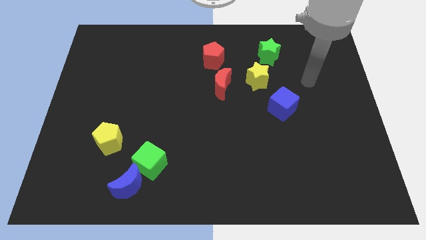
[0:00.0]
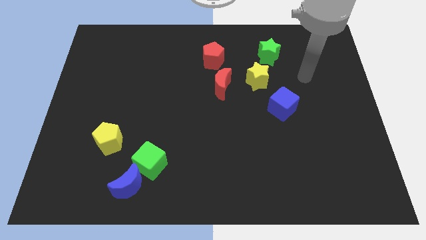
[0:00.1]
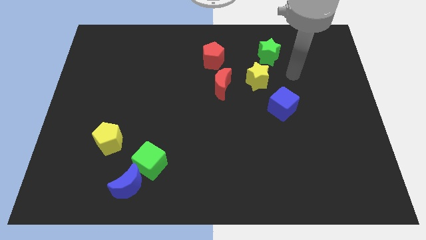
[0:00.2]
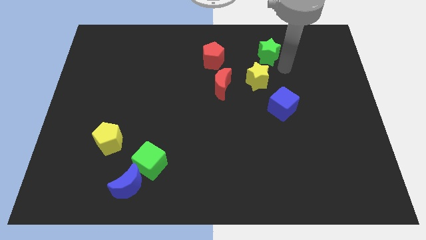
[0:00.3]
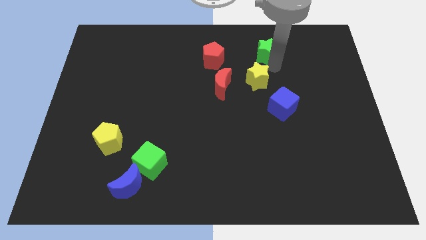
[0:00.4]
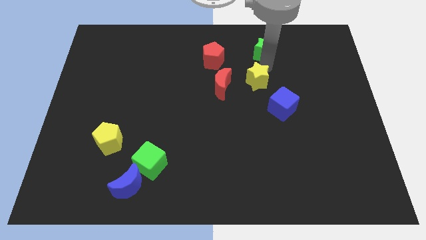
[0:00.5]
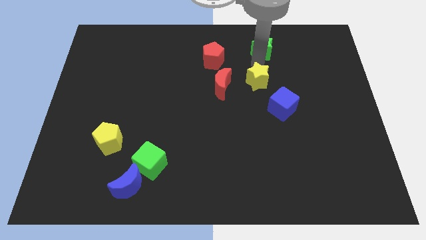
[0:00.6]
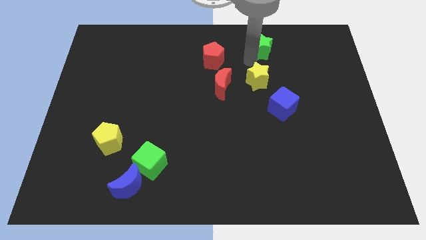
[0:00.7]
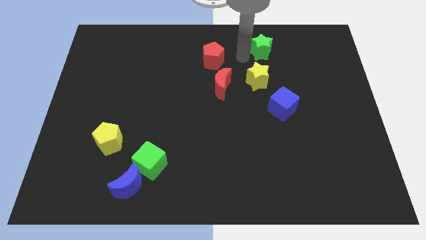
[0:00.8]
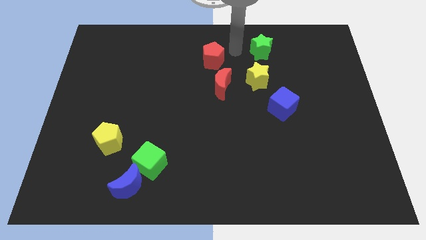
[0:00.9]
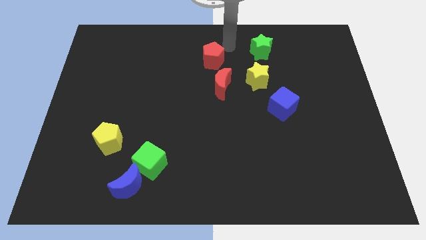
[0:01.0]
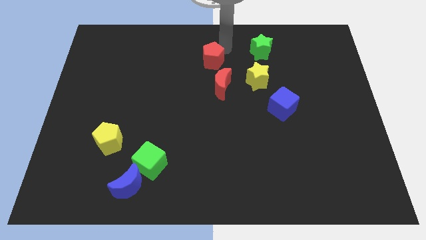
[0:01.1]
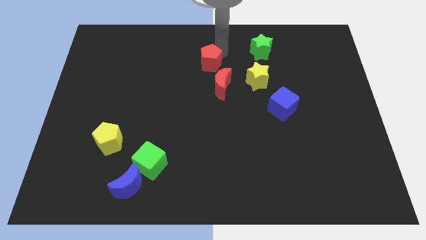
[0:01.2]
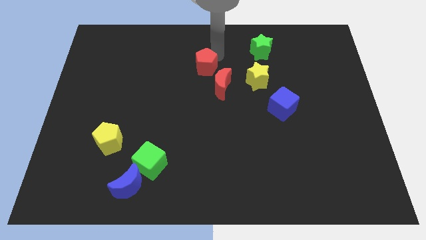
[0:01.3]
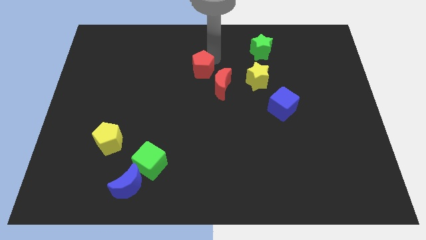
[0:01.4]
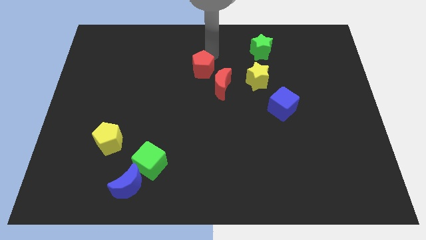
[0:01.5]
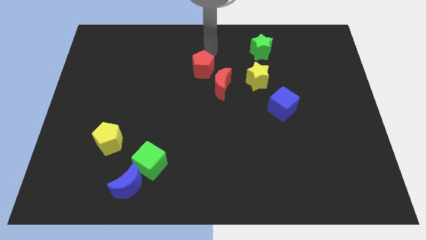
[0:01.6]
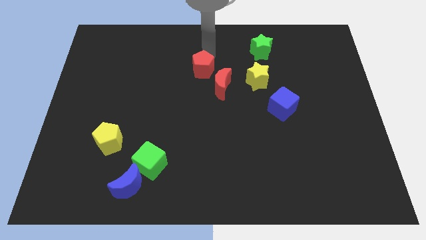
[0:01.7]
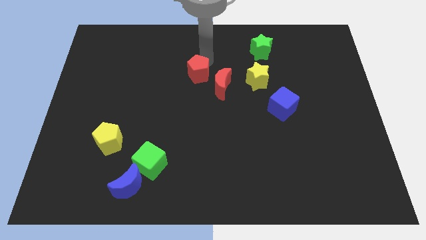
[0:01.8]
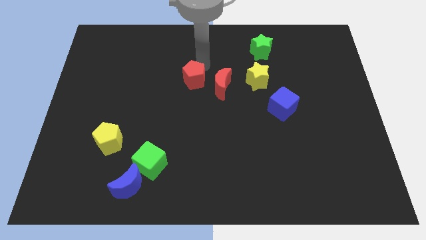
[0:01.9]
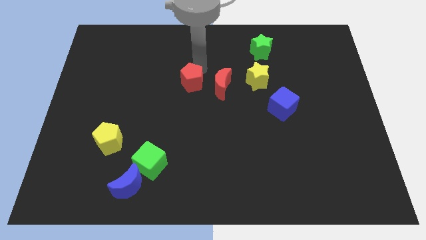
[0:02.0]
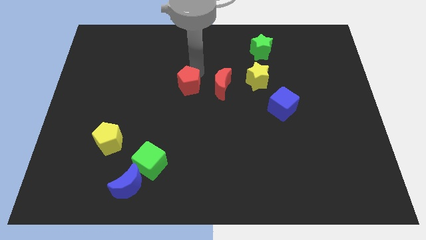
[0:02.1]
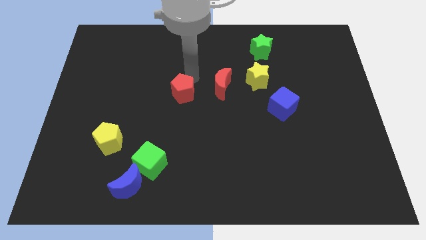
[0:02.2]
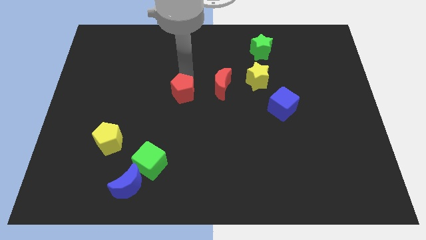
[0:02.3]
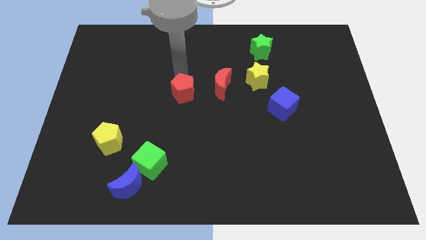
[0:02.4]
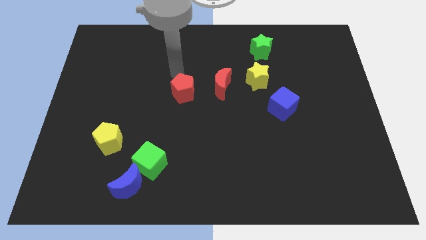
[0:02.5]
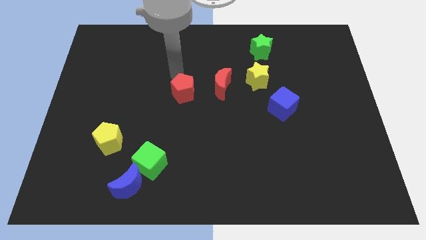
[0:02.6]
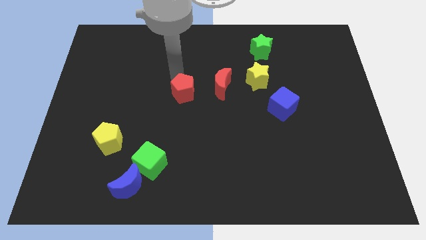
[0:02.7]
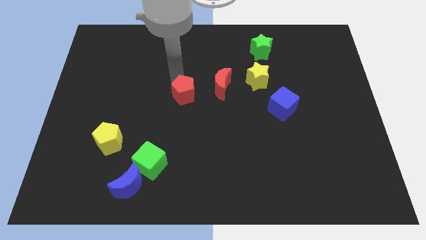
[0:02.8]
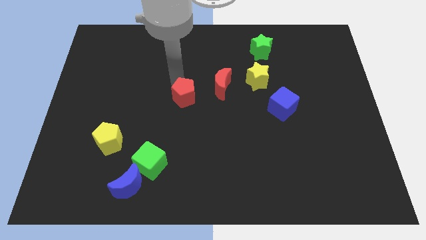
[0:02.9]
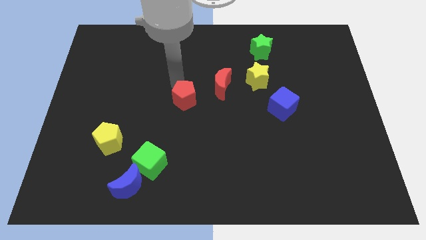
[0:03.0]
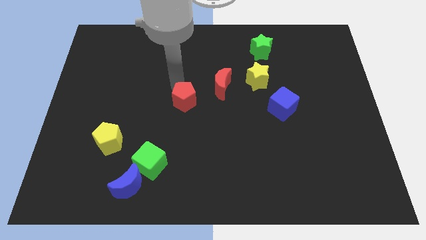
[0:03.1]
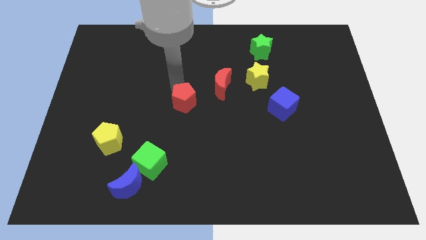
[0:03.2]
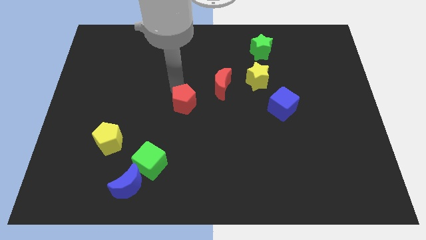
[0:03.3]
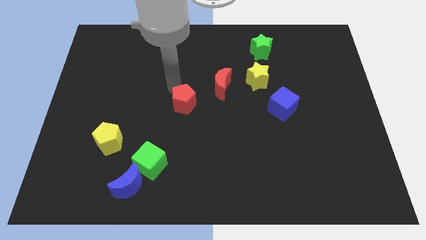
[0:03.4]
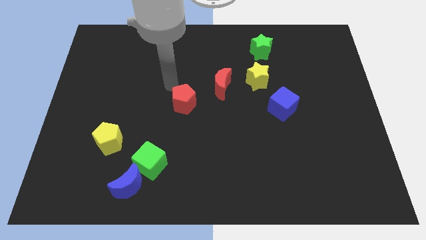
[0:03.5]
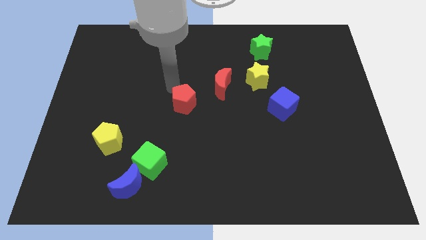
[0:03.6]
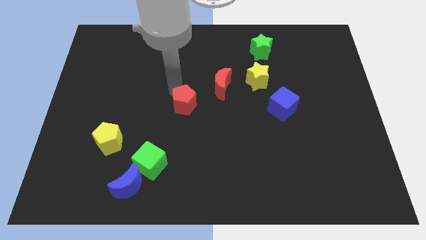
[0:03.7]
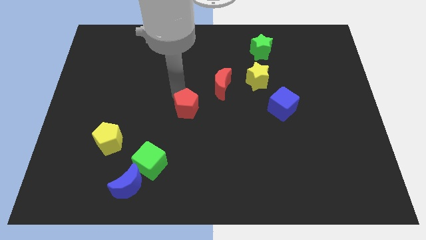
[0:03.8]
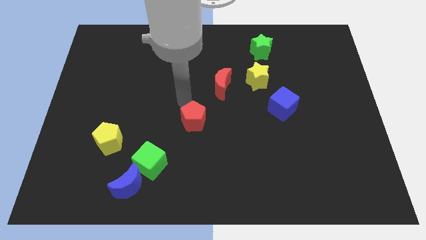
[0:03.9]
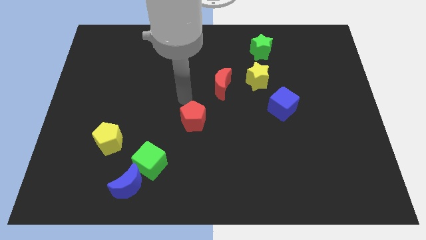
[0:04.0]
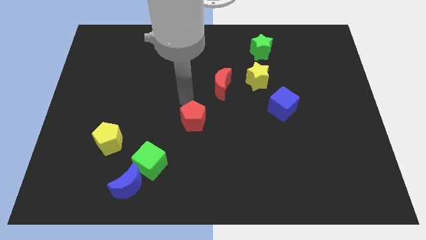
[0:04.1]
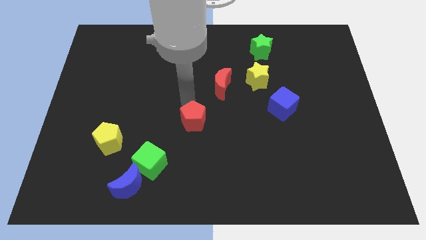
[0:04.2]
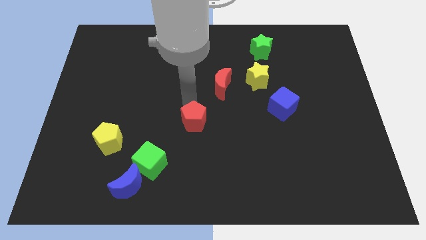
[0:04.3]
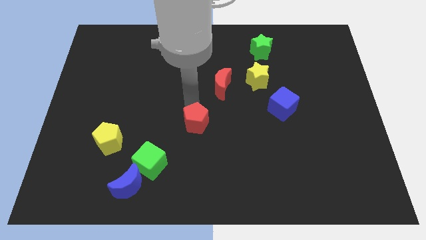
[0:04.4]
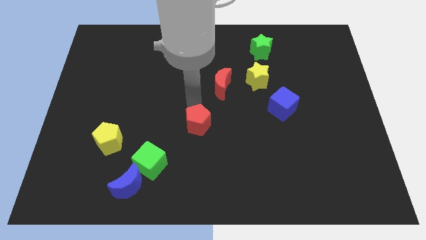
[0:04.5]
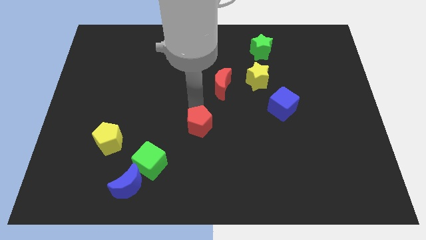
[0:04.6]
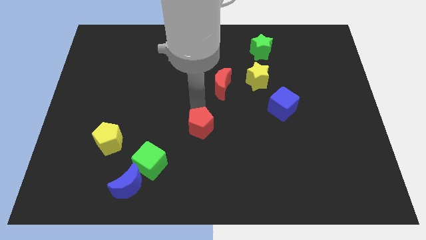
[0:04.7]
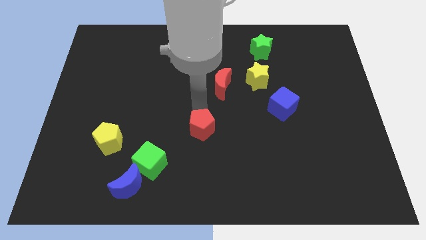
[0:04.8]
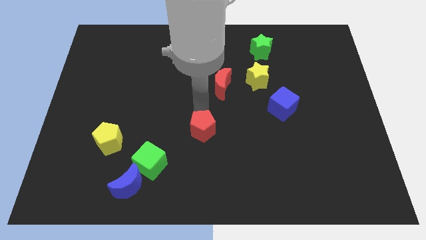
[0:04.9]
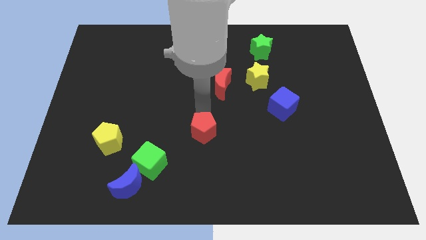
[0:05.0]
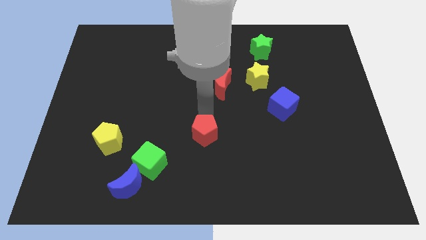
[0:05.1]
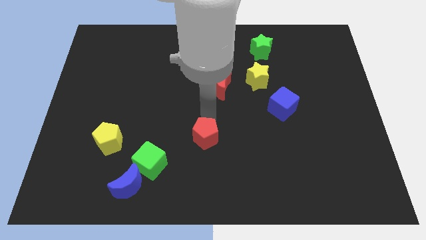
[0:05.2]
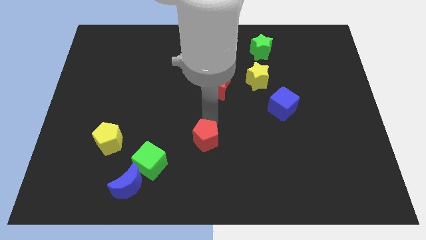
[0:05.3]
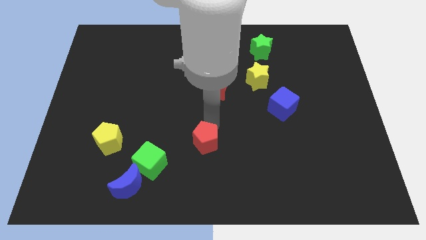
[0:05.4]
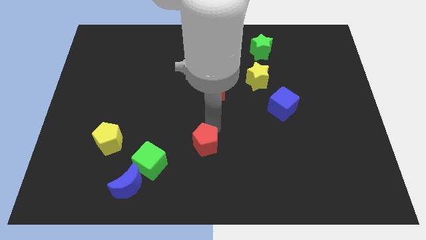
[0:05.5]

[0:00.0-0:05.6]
move the red pentagon just right of the green cube

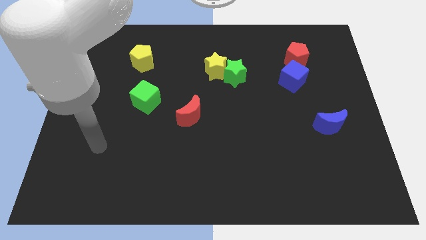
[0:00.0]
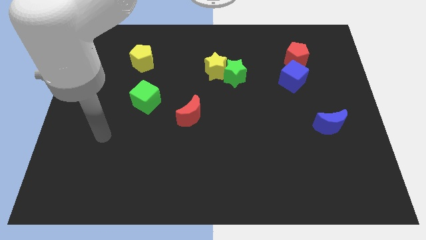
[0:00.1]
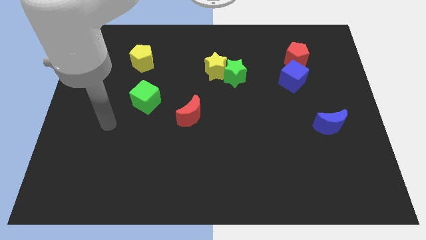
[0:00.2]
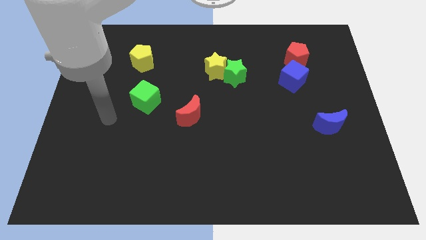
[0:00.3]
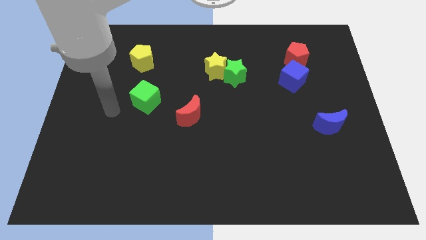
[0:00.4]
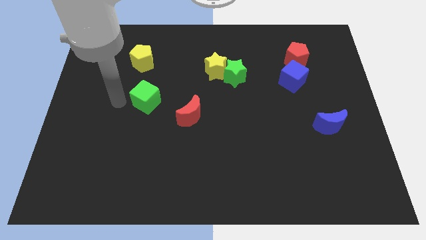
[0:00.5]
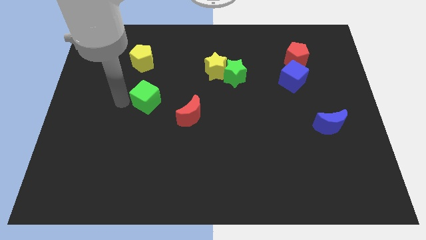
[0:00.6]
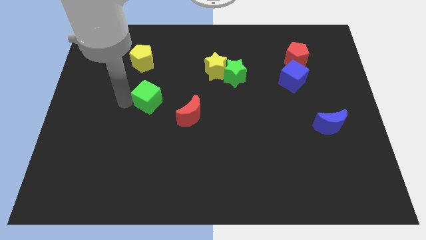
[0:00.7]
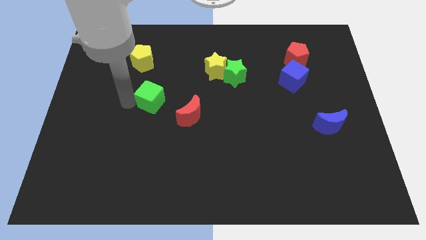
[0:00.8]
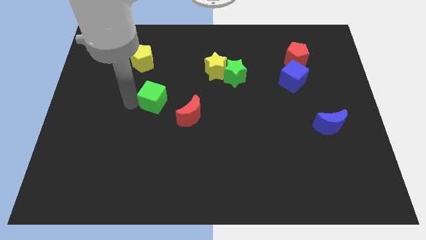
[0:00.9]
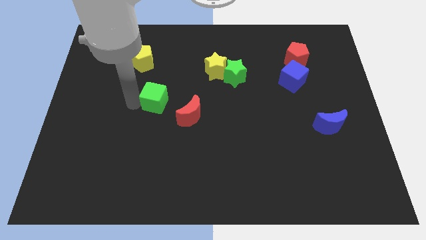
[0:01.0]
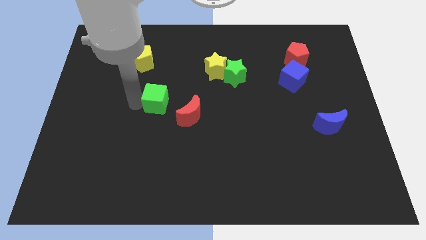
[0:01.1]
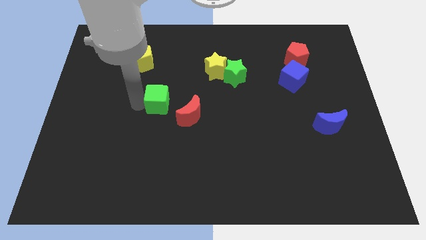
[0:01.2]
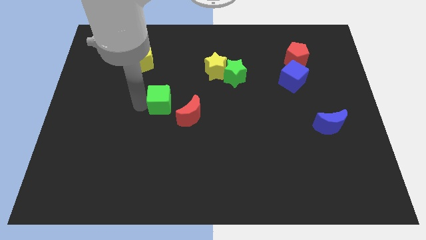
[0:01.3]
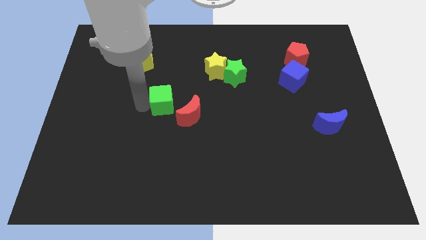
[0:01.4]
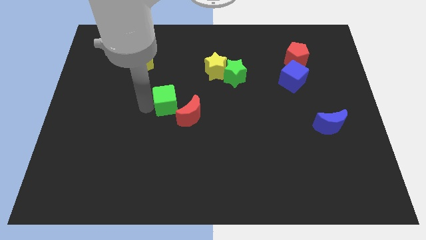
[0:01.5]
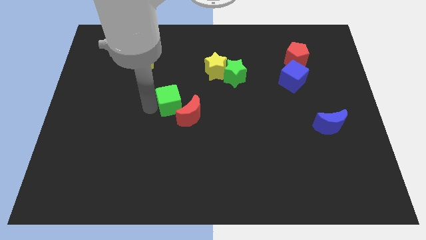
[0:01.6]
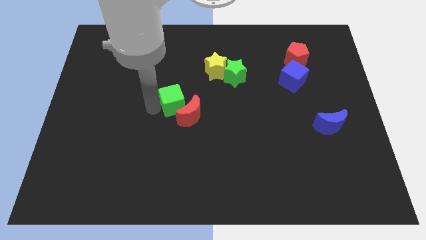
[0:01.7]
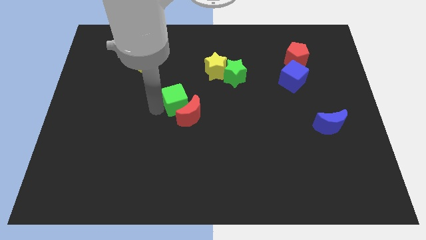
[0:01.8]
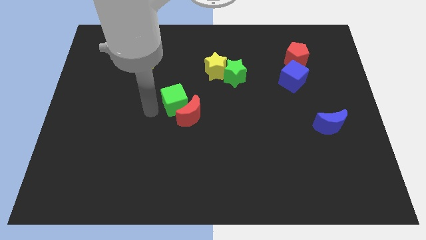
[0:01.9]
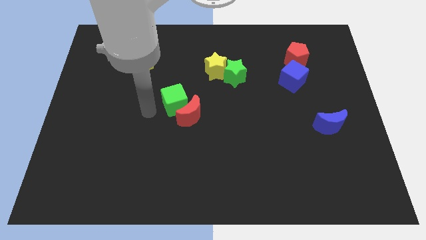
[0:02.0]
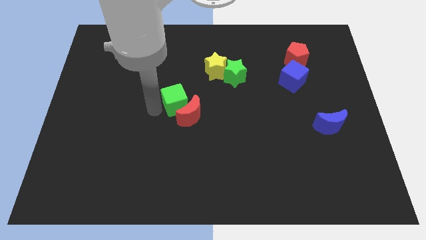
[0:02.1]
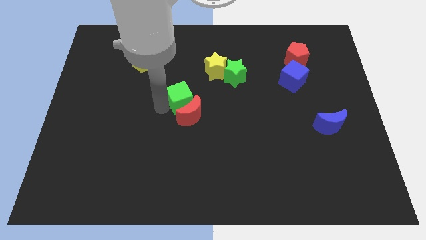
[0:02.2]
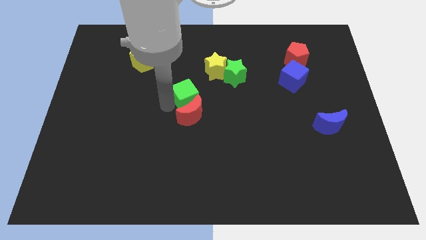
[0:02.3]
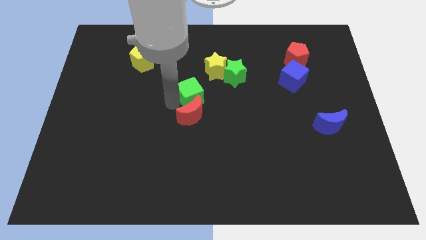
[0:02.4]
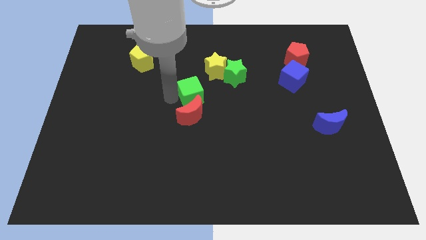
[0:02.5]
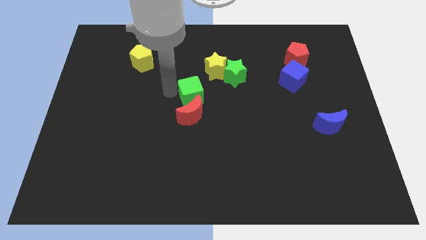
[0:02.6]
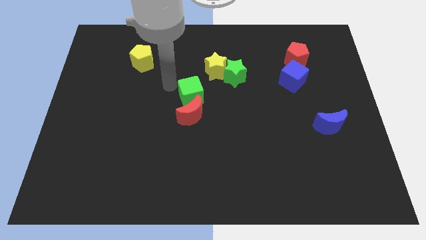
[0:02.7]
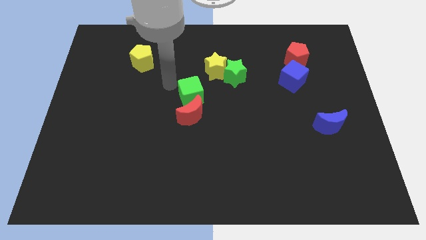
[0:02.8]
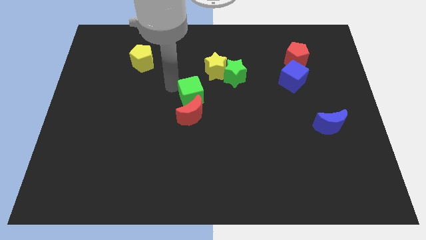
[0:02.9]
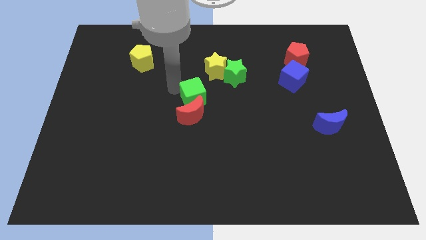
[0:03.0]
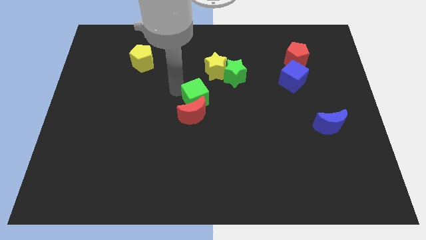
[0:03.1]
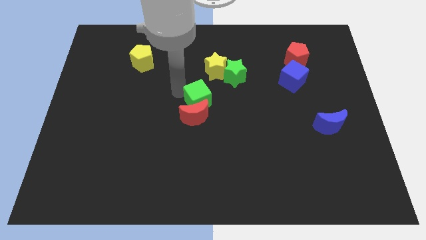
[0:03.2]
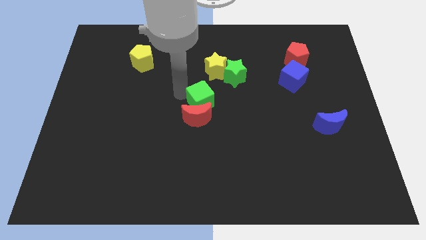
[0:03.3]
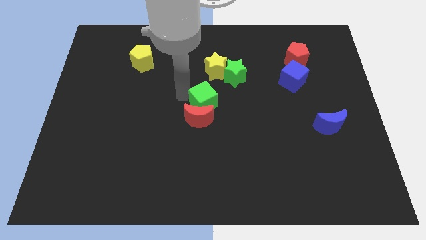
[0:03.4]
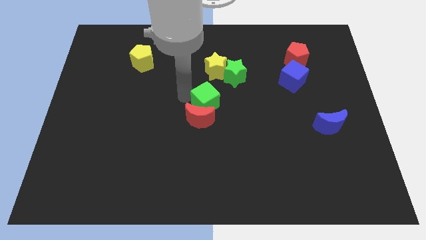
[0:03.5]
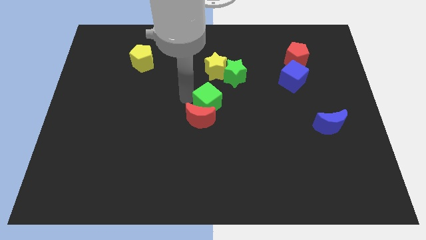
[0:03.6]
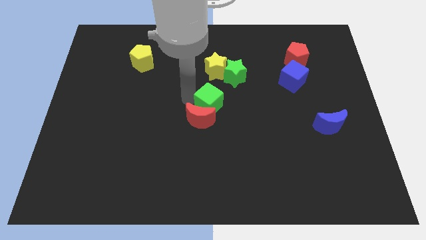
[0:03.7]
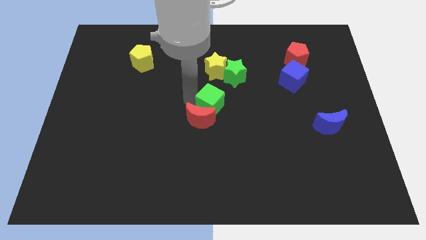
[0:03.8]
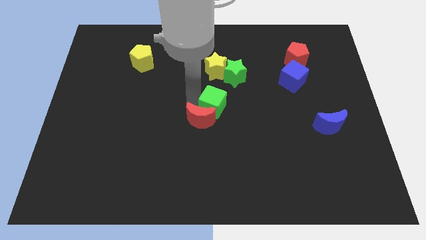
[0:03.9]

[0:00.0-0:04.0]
slide the green cube to the right side of the red moon
